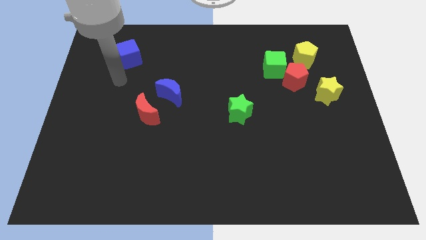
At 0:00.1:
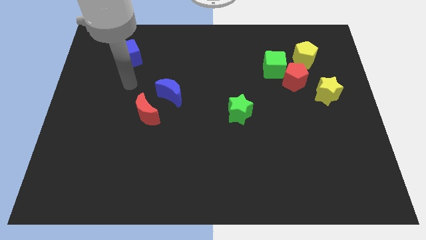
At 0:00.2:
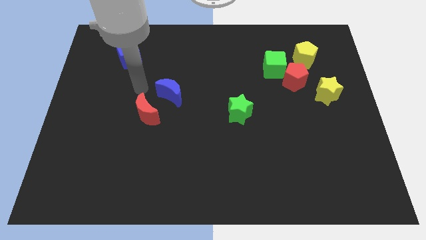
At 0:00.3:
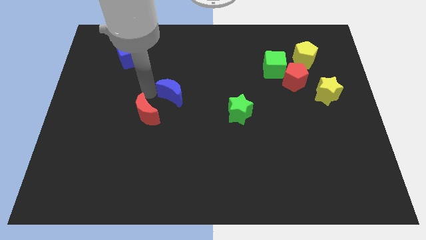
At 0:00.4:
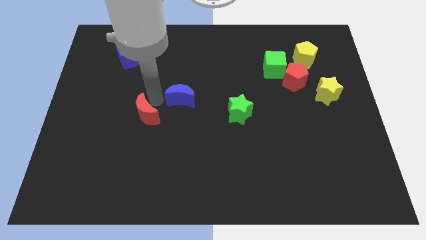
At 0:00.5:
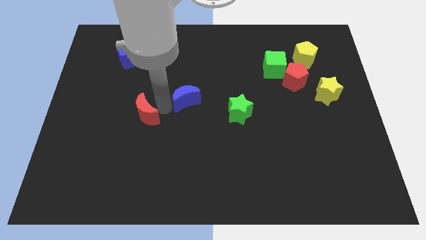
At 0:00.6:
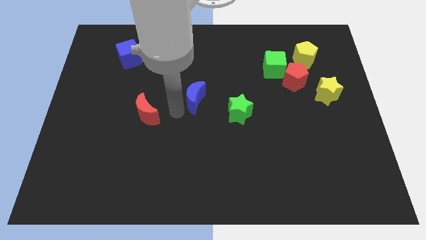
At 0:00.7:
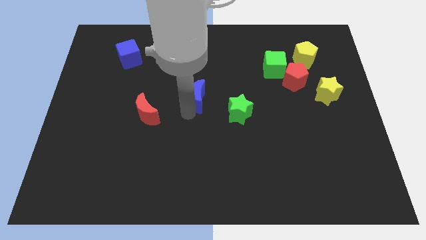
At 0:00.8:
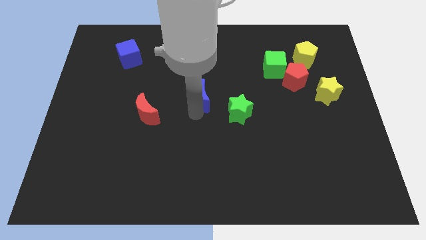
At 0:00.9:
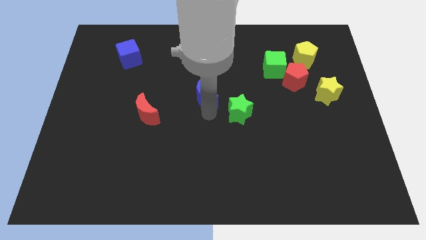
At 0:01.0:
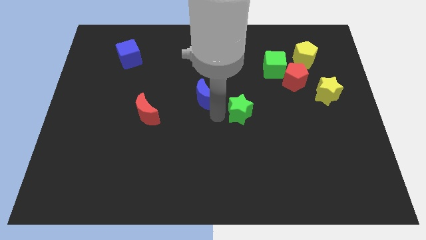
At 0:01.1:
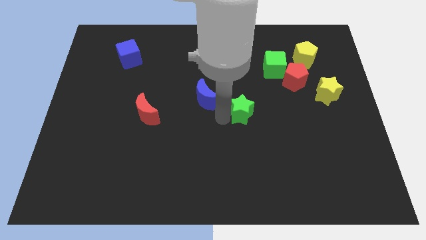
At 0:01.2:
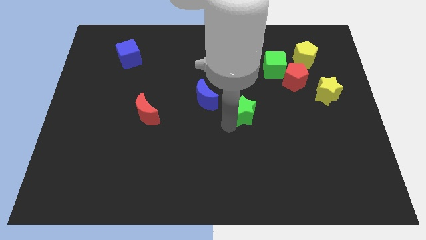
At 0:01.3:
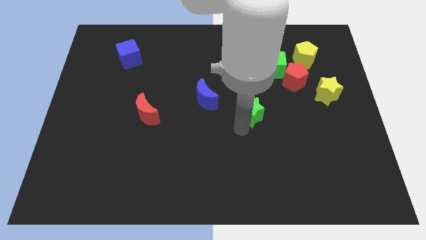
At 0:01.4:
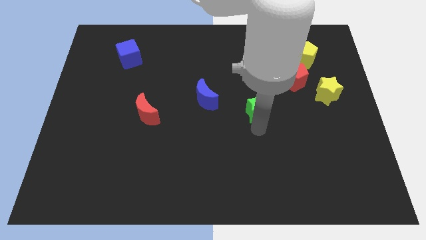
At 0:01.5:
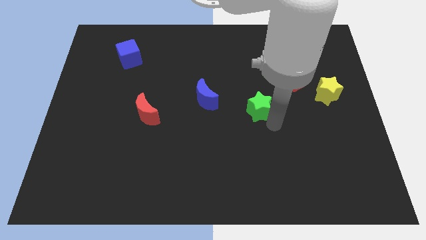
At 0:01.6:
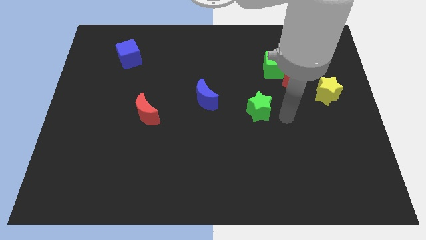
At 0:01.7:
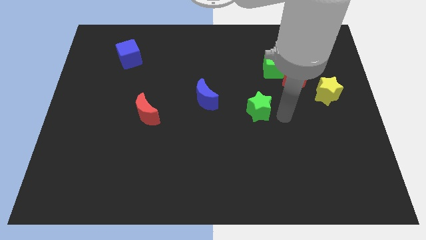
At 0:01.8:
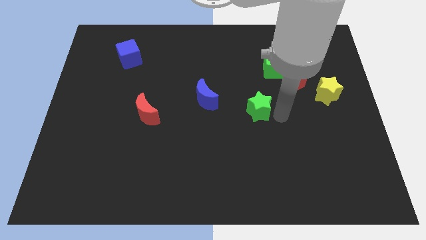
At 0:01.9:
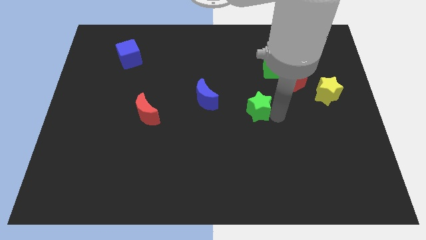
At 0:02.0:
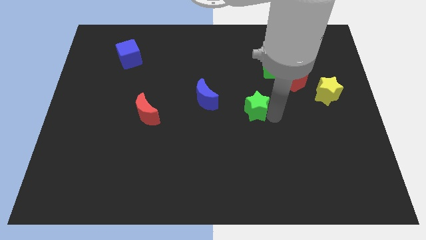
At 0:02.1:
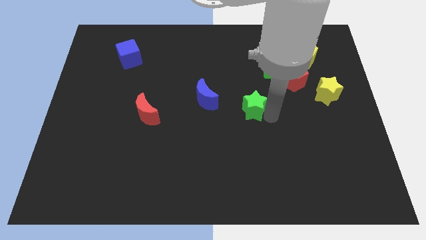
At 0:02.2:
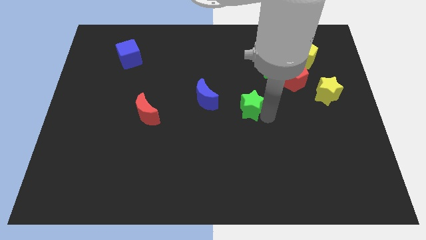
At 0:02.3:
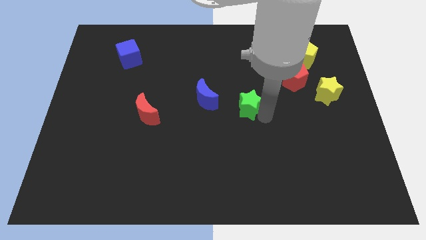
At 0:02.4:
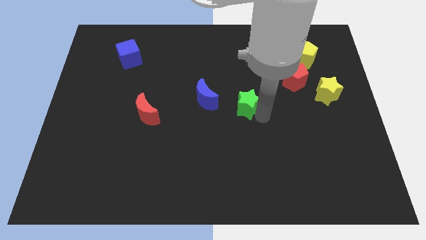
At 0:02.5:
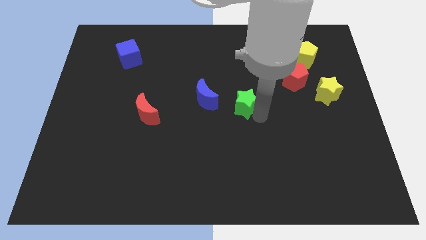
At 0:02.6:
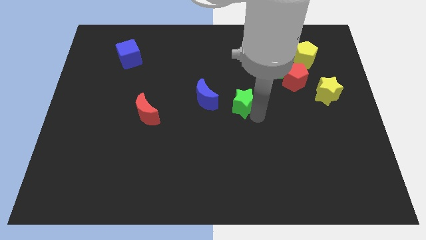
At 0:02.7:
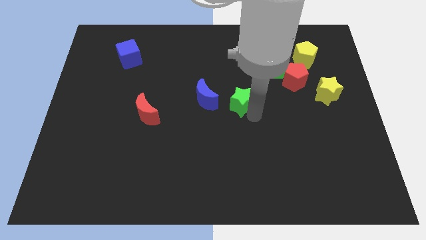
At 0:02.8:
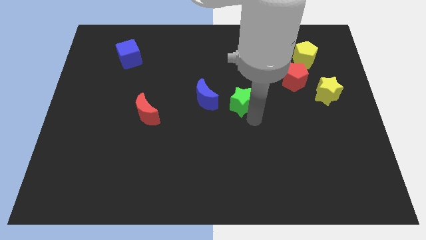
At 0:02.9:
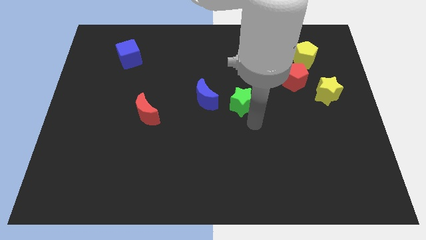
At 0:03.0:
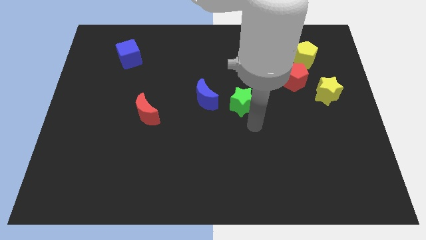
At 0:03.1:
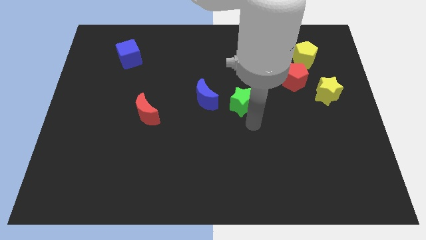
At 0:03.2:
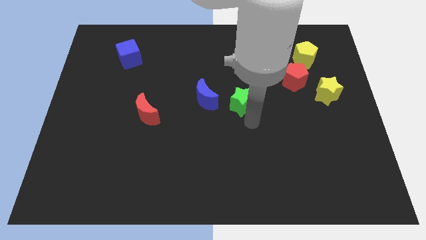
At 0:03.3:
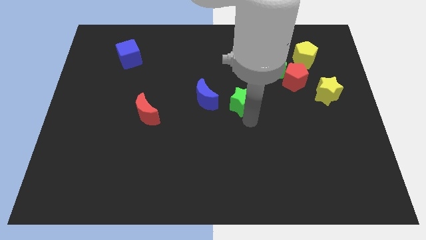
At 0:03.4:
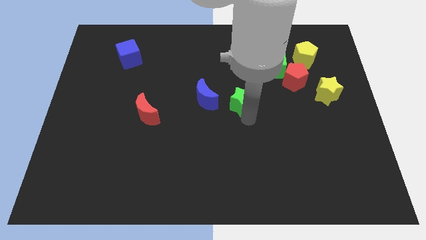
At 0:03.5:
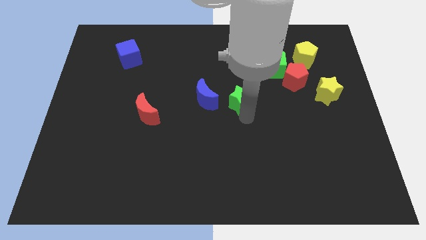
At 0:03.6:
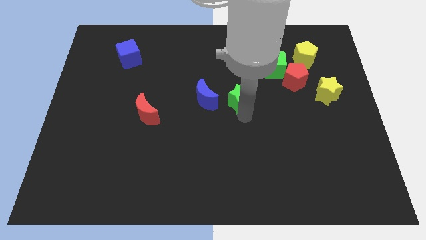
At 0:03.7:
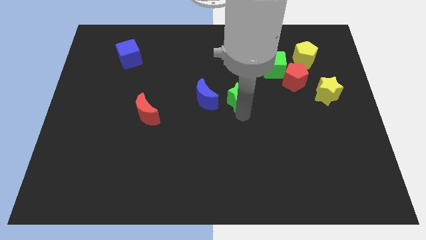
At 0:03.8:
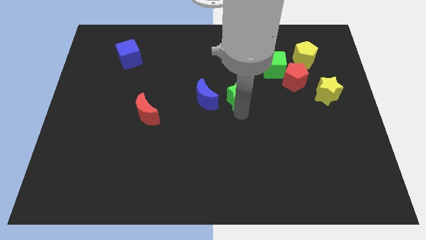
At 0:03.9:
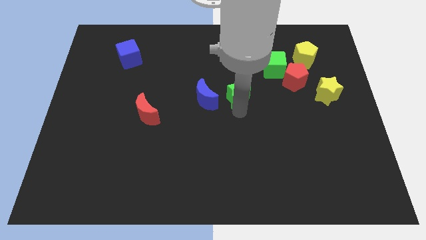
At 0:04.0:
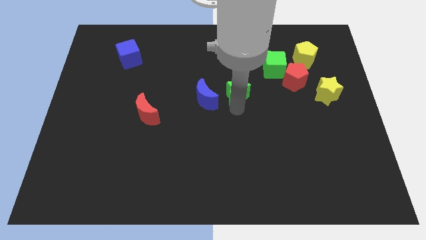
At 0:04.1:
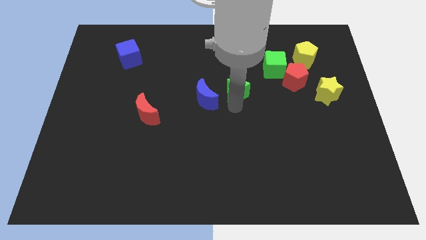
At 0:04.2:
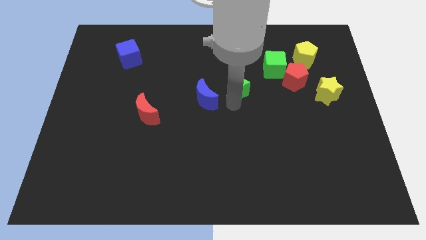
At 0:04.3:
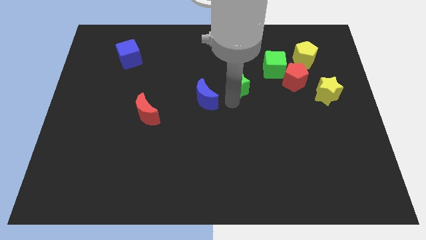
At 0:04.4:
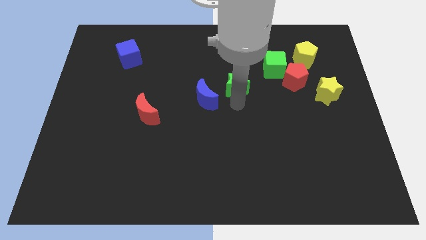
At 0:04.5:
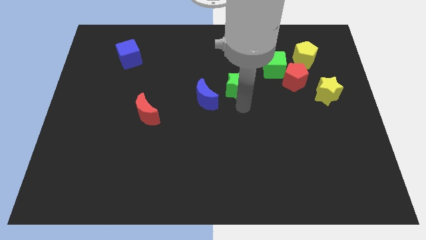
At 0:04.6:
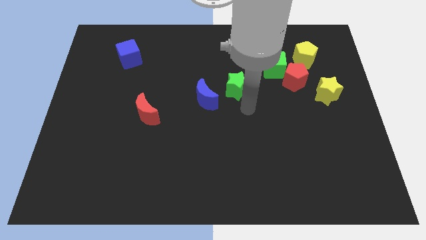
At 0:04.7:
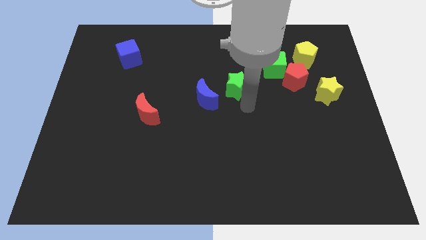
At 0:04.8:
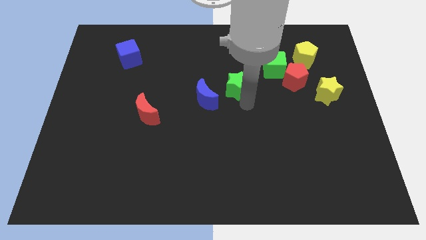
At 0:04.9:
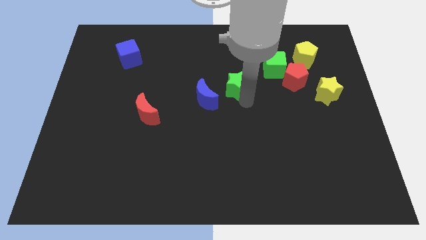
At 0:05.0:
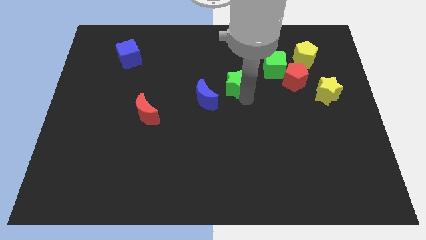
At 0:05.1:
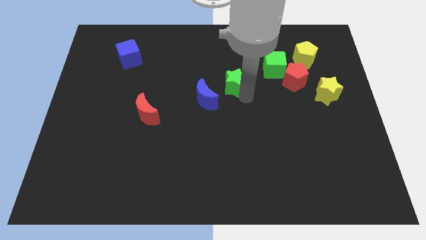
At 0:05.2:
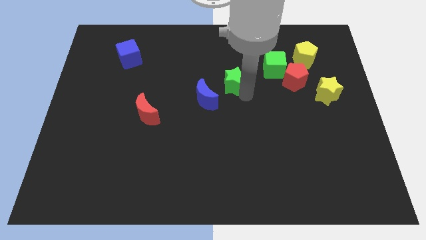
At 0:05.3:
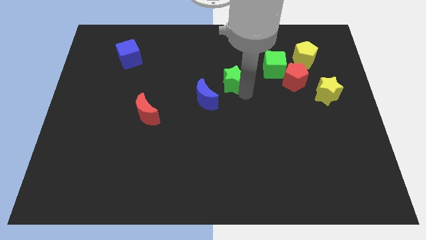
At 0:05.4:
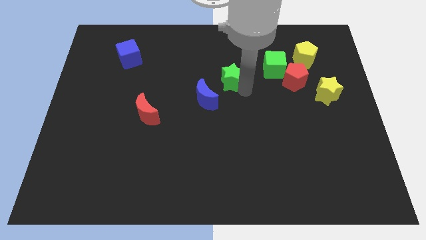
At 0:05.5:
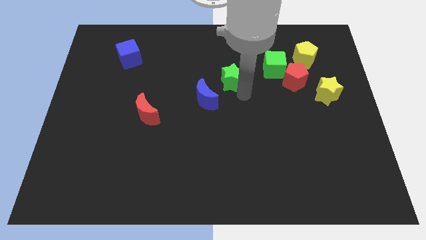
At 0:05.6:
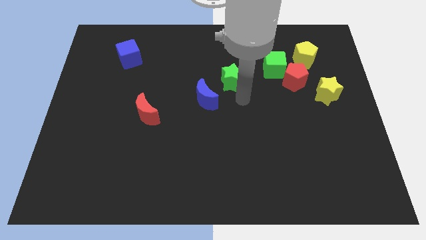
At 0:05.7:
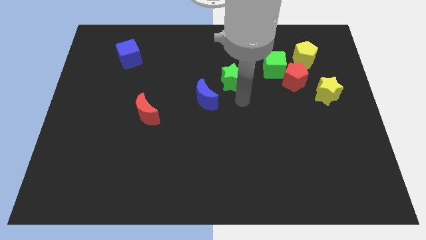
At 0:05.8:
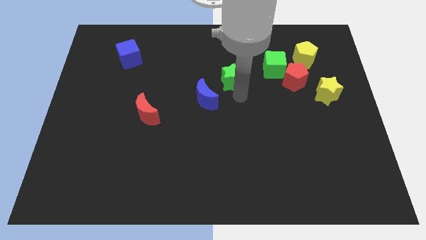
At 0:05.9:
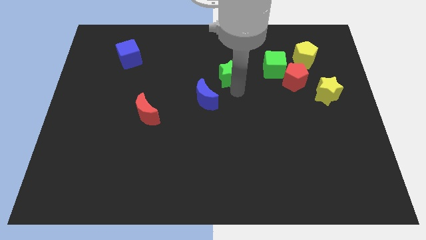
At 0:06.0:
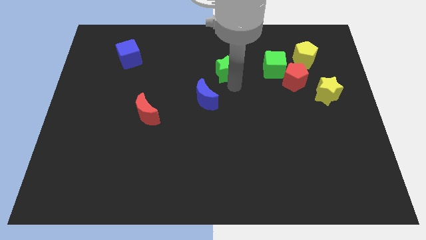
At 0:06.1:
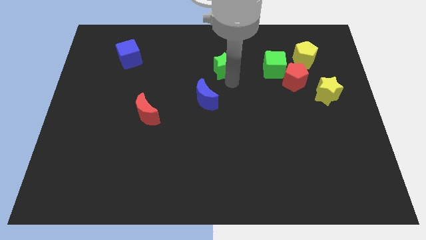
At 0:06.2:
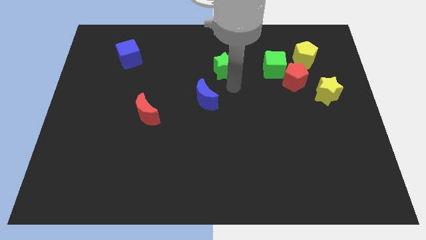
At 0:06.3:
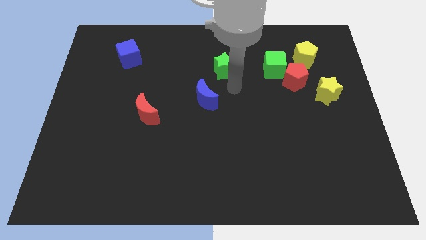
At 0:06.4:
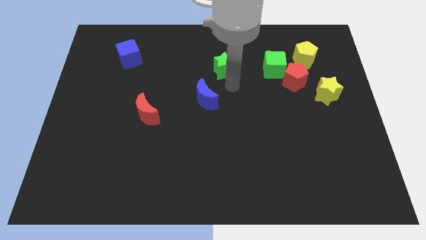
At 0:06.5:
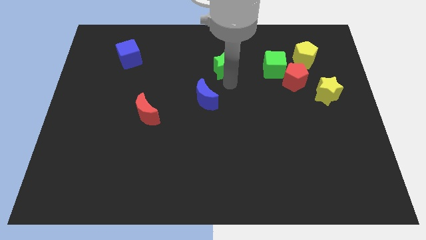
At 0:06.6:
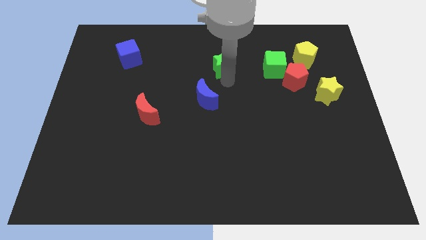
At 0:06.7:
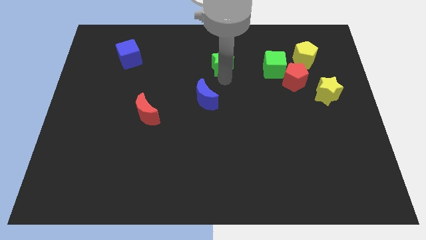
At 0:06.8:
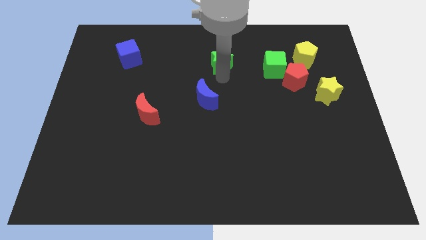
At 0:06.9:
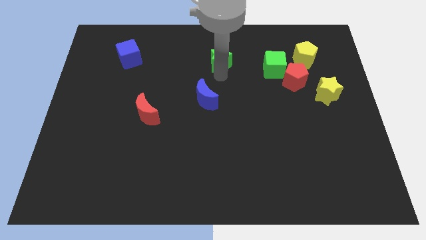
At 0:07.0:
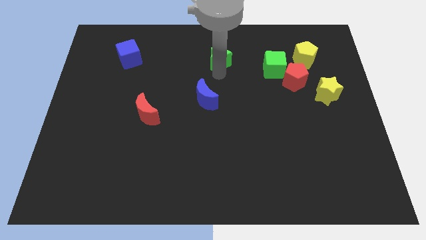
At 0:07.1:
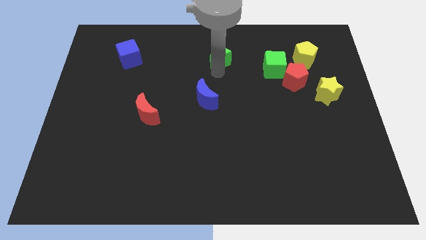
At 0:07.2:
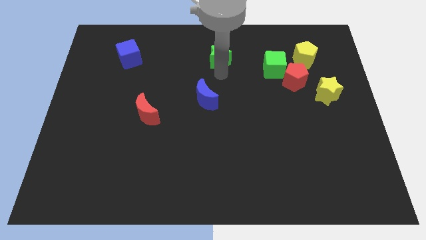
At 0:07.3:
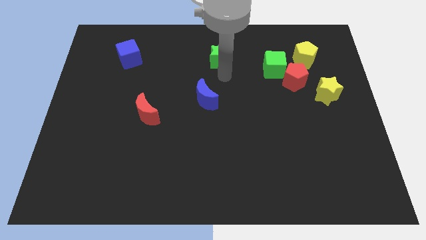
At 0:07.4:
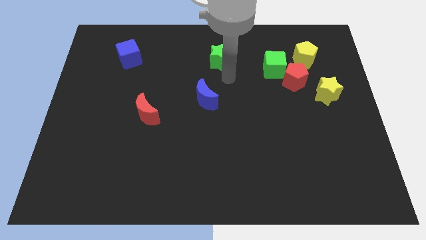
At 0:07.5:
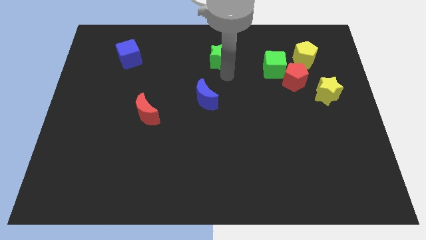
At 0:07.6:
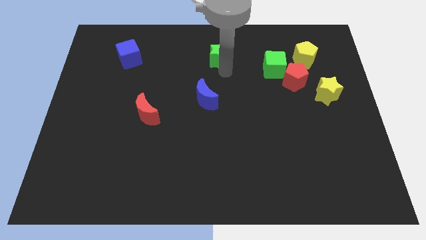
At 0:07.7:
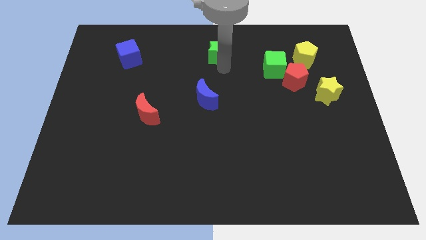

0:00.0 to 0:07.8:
move the green star to the top

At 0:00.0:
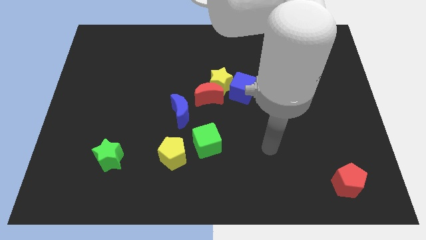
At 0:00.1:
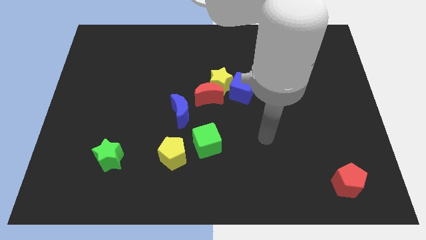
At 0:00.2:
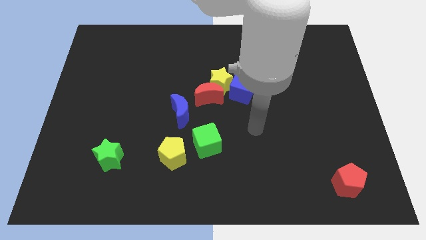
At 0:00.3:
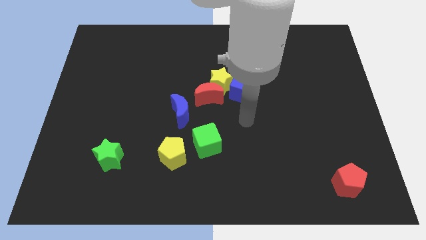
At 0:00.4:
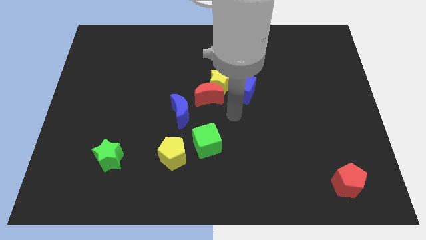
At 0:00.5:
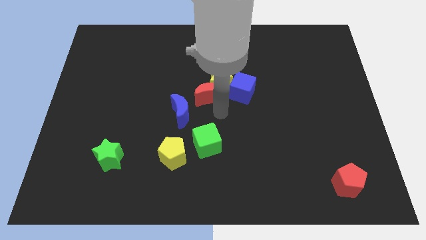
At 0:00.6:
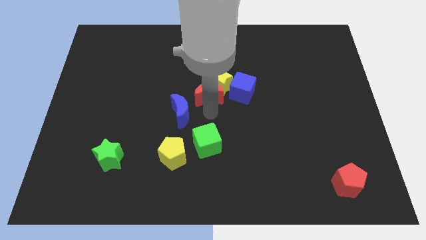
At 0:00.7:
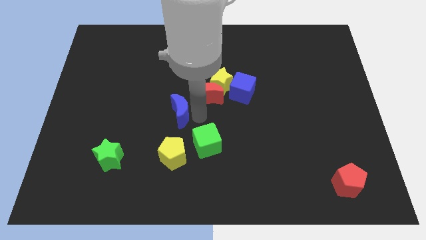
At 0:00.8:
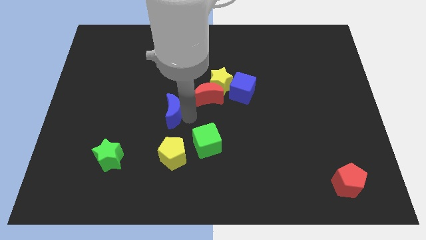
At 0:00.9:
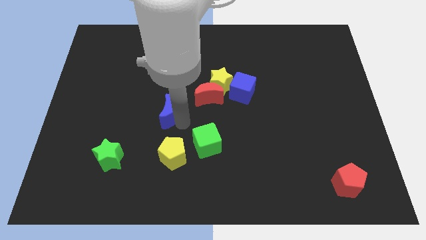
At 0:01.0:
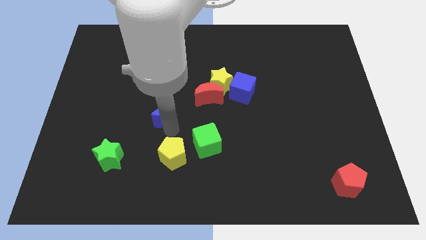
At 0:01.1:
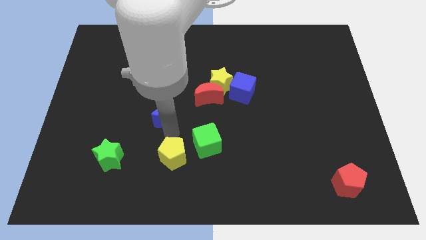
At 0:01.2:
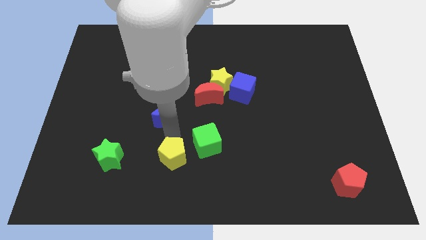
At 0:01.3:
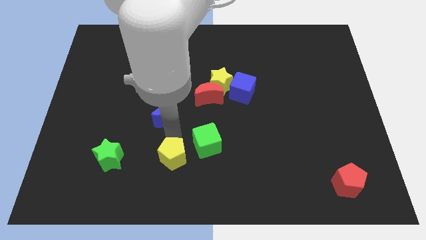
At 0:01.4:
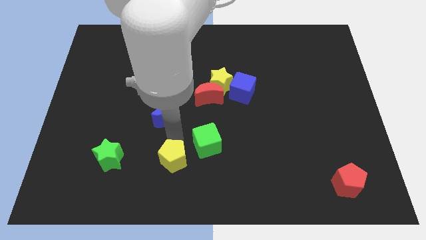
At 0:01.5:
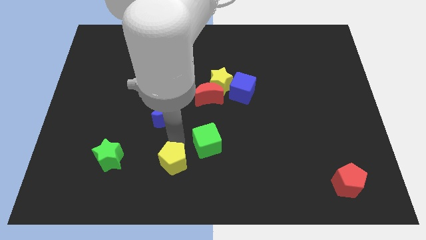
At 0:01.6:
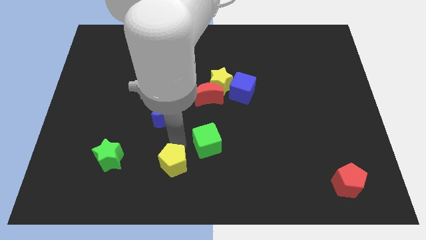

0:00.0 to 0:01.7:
slide the yellow pentagon to the bottom side
